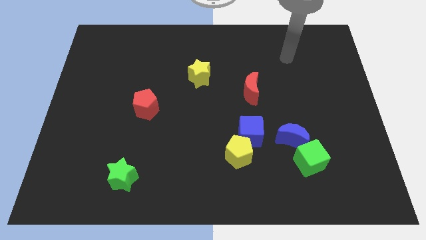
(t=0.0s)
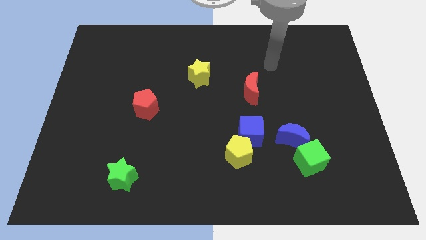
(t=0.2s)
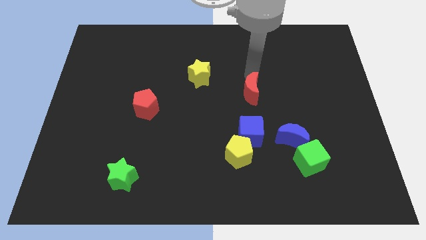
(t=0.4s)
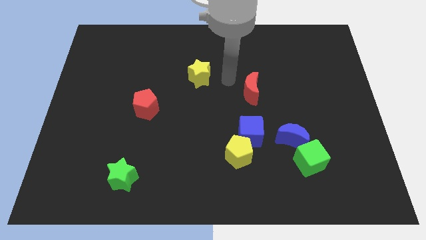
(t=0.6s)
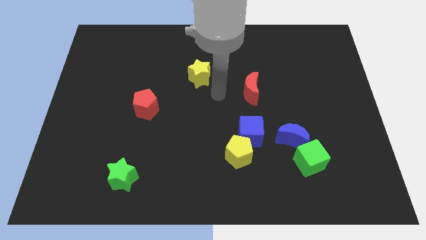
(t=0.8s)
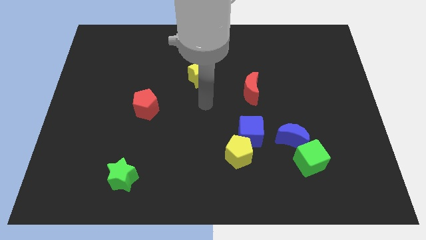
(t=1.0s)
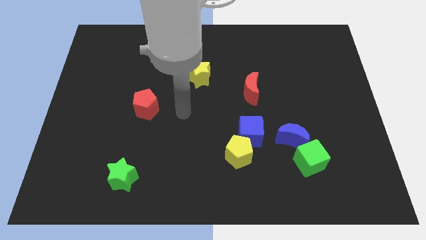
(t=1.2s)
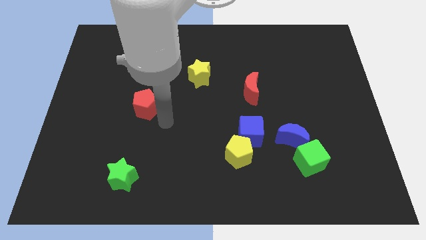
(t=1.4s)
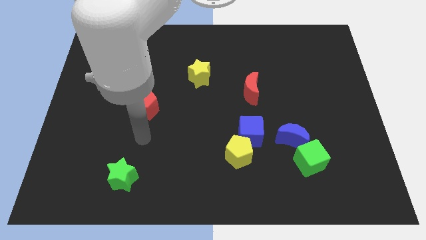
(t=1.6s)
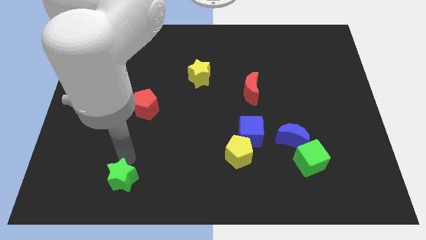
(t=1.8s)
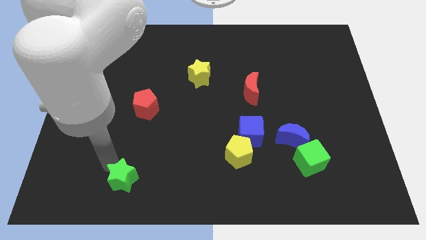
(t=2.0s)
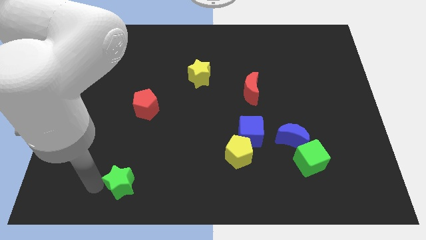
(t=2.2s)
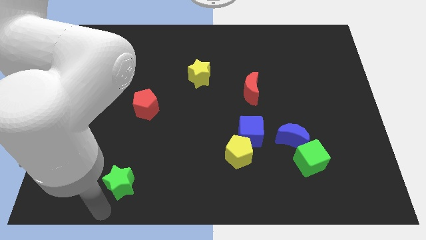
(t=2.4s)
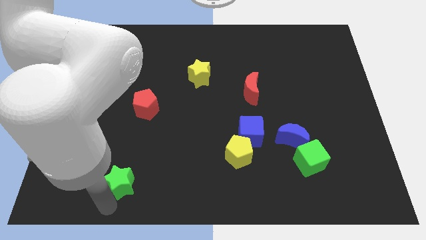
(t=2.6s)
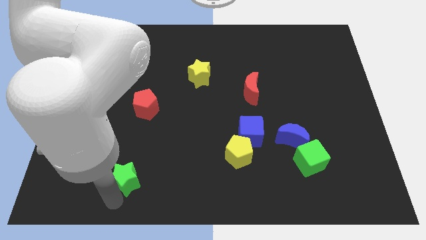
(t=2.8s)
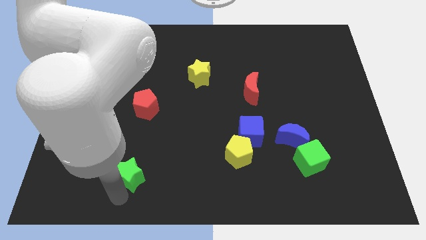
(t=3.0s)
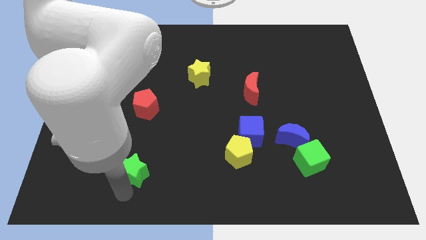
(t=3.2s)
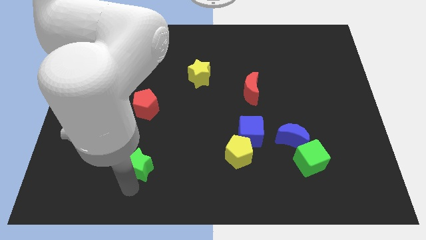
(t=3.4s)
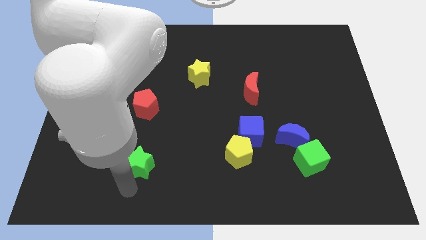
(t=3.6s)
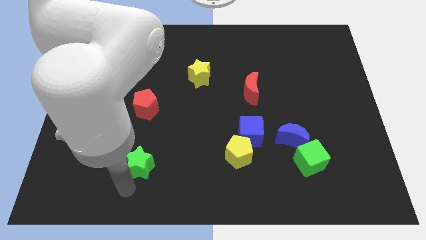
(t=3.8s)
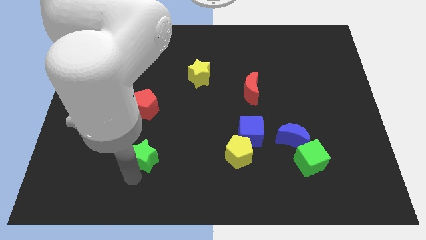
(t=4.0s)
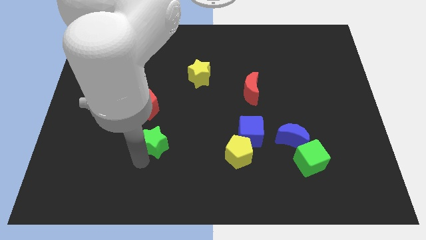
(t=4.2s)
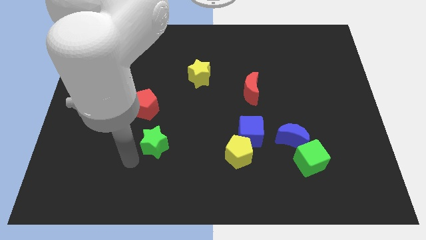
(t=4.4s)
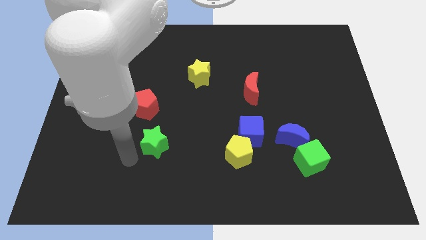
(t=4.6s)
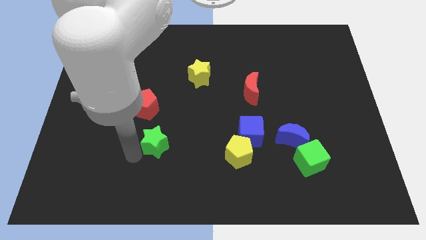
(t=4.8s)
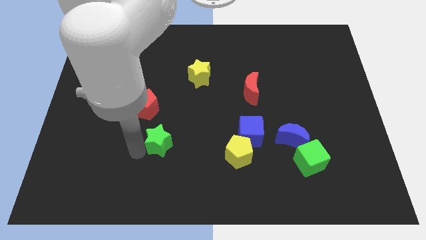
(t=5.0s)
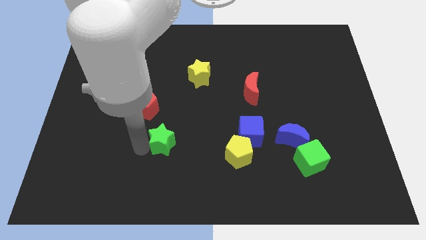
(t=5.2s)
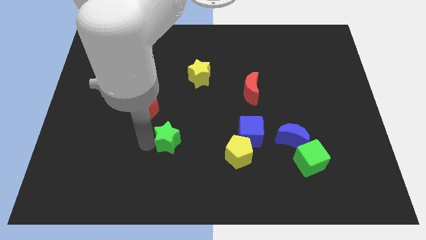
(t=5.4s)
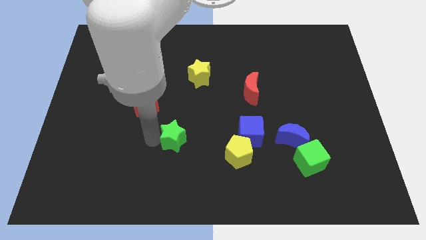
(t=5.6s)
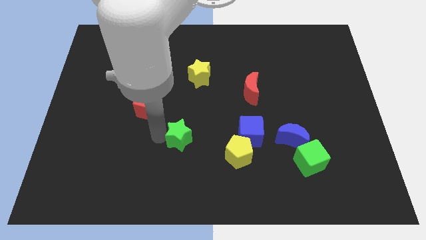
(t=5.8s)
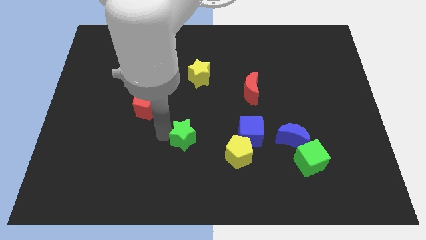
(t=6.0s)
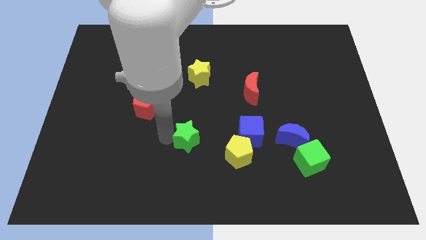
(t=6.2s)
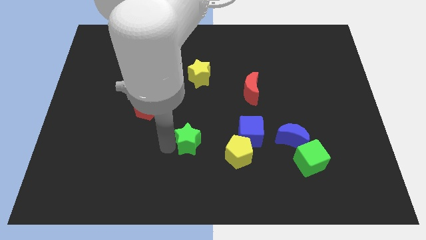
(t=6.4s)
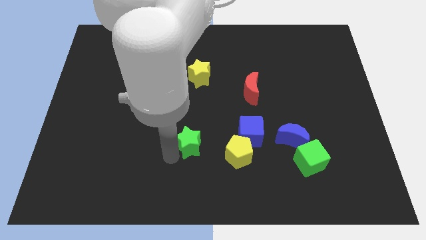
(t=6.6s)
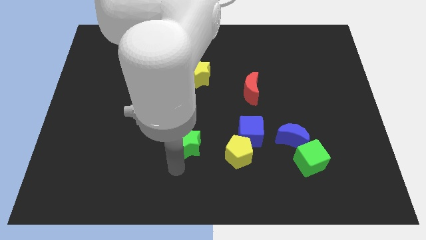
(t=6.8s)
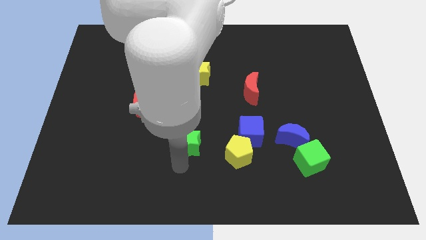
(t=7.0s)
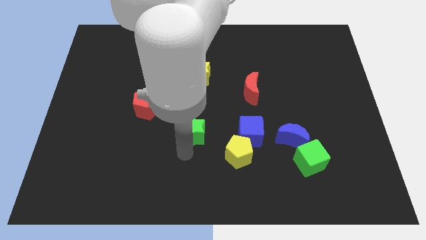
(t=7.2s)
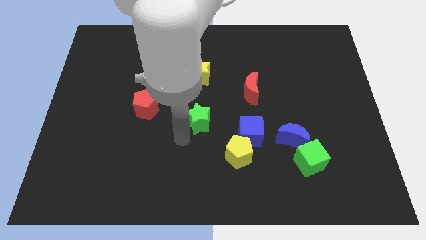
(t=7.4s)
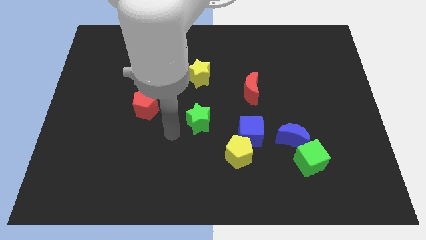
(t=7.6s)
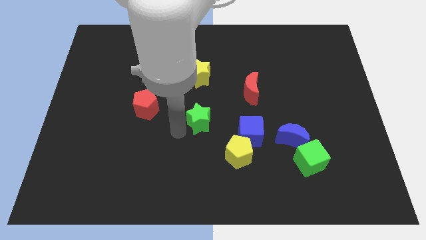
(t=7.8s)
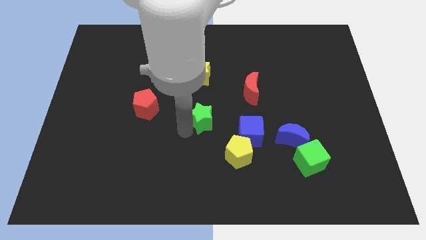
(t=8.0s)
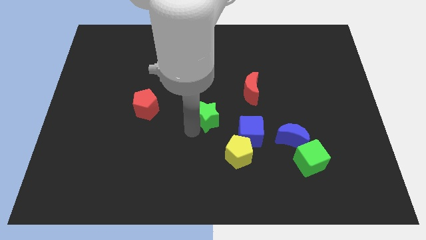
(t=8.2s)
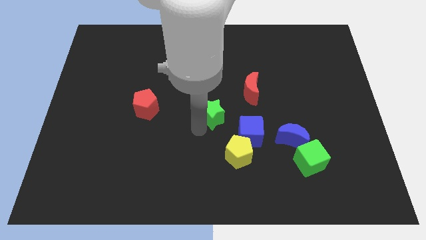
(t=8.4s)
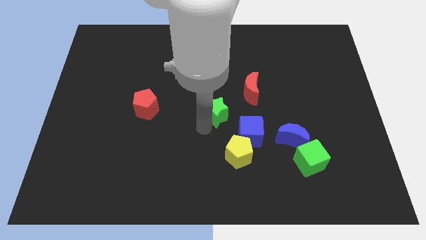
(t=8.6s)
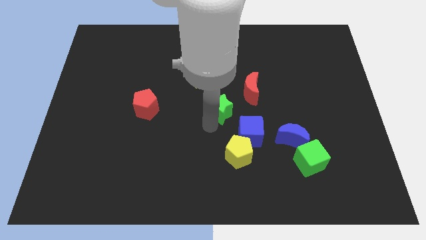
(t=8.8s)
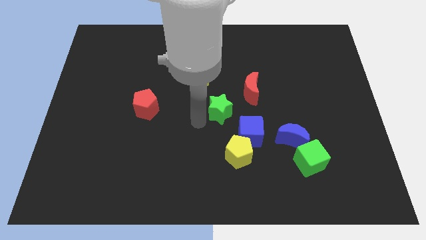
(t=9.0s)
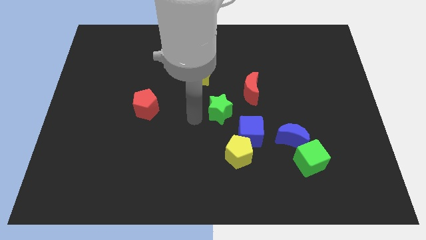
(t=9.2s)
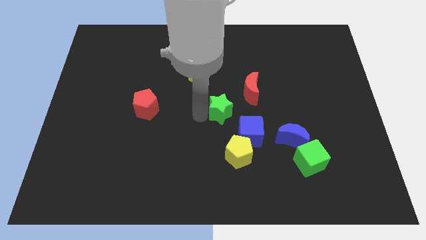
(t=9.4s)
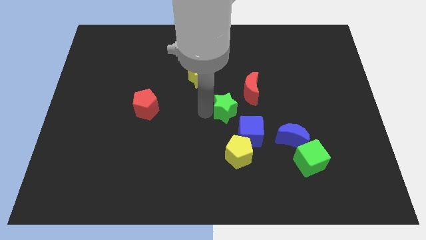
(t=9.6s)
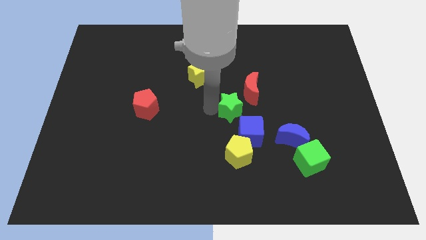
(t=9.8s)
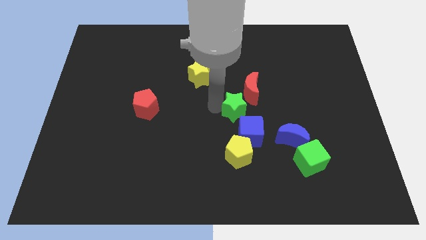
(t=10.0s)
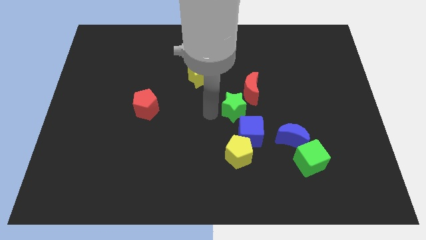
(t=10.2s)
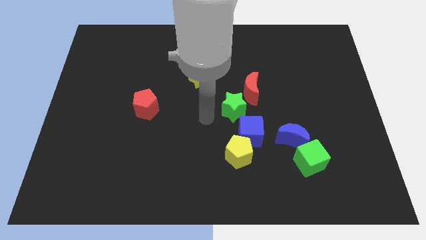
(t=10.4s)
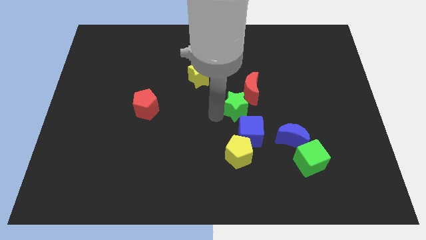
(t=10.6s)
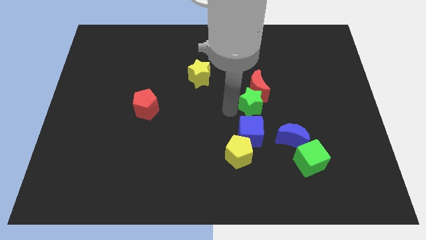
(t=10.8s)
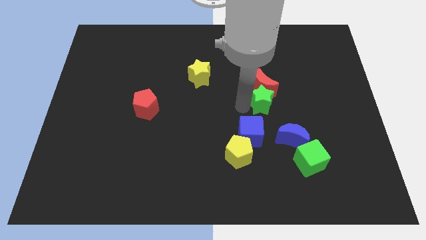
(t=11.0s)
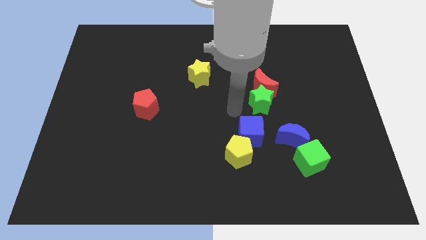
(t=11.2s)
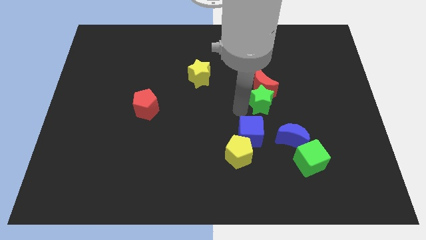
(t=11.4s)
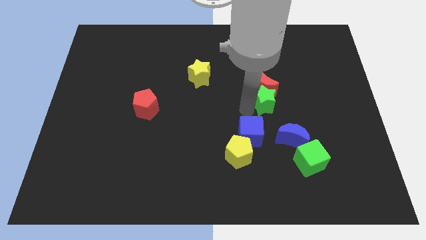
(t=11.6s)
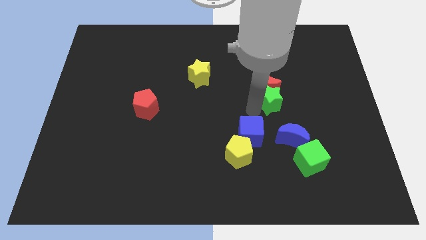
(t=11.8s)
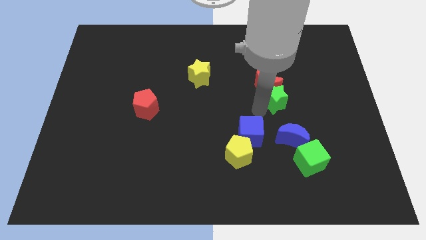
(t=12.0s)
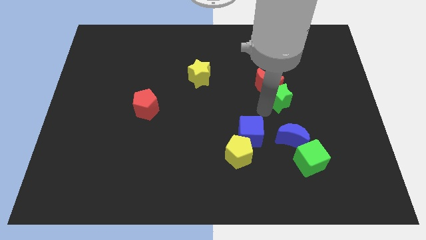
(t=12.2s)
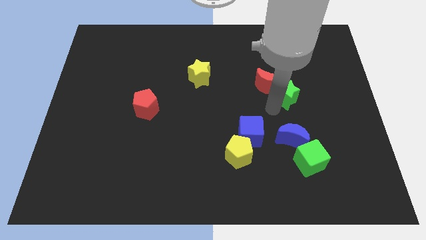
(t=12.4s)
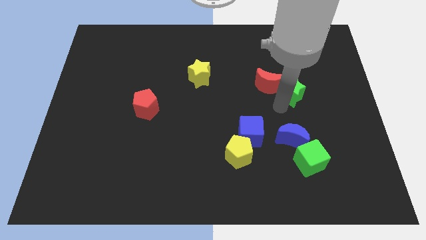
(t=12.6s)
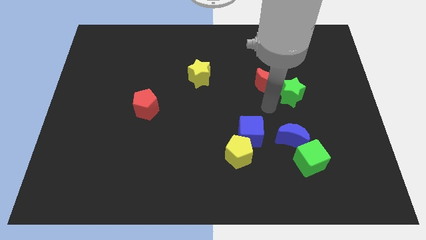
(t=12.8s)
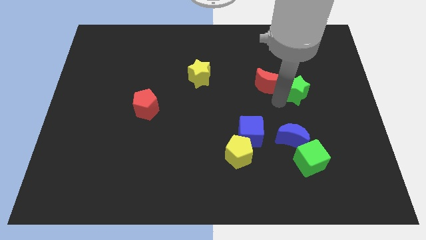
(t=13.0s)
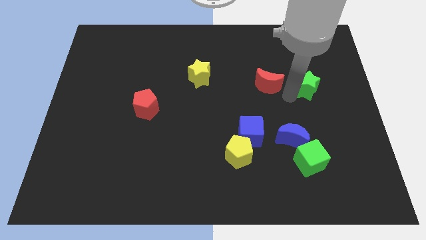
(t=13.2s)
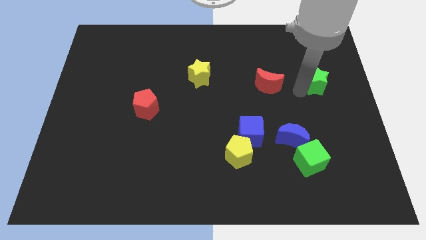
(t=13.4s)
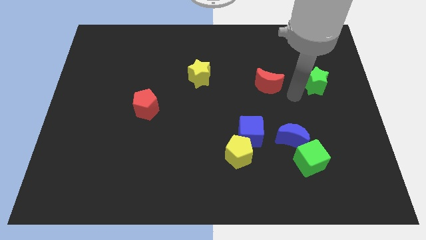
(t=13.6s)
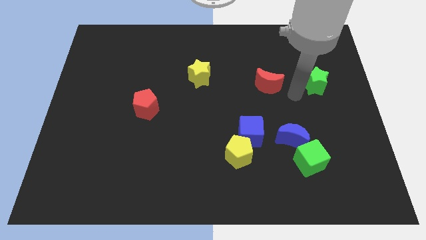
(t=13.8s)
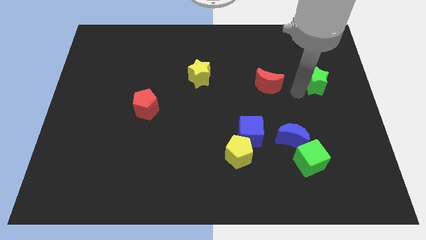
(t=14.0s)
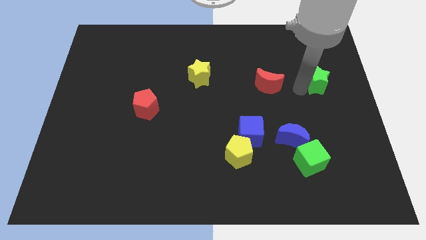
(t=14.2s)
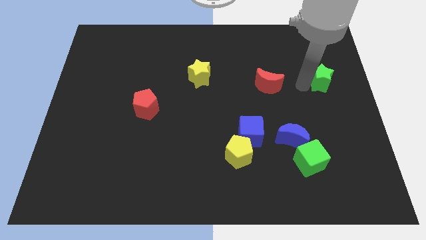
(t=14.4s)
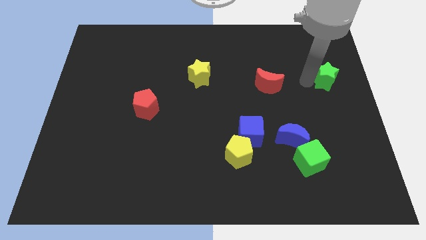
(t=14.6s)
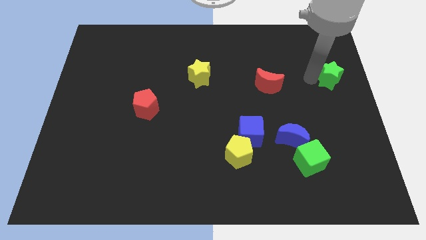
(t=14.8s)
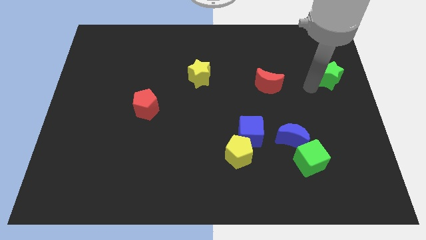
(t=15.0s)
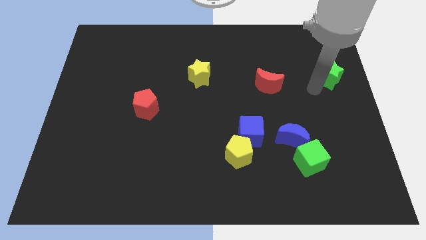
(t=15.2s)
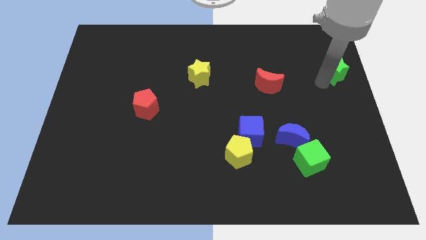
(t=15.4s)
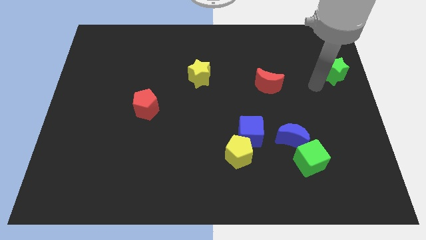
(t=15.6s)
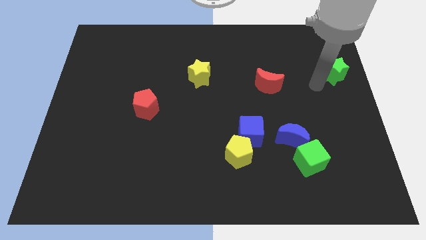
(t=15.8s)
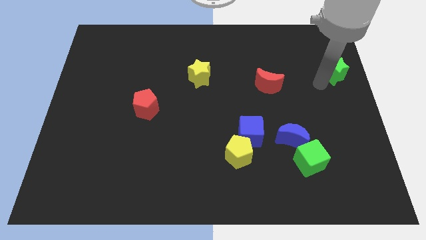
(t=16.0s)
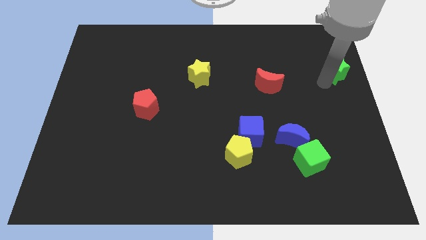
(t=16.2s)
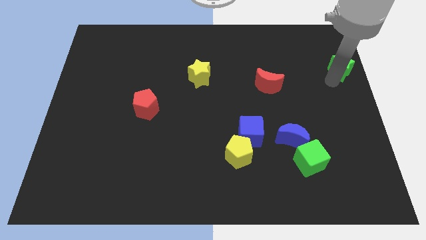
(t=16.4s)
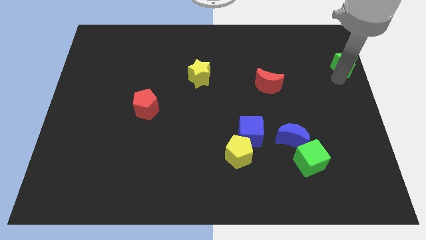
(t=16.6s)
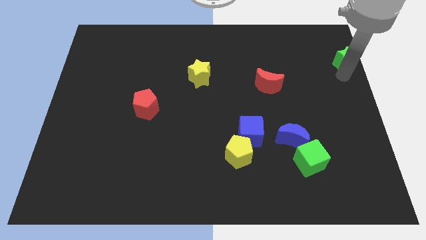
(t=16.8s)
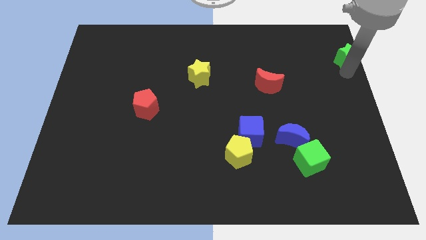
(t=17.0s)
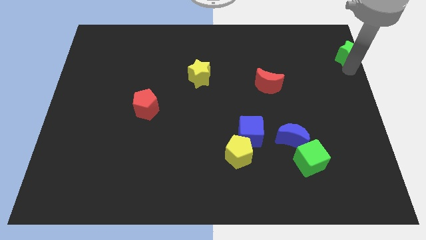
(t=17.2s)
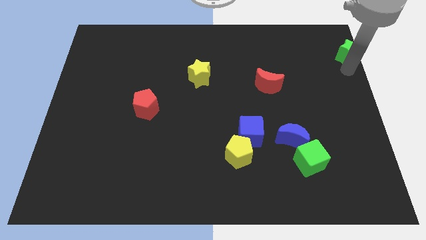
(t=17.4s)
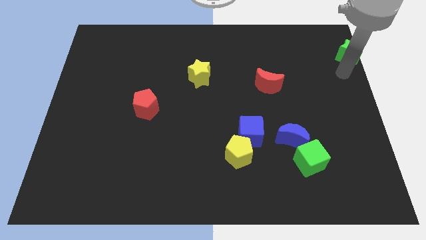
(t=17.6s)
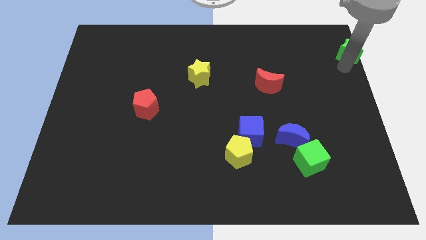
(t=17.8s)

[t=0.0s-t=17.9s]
move the green star to the upper right corner
